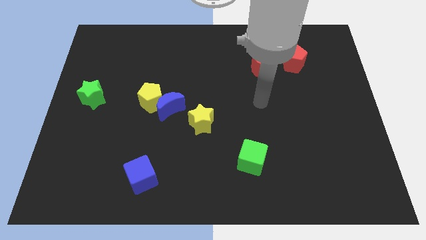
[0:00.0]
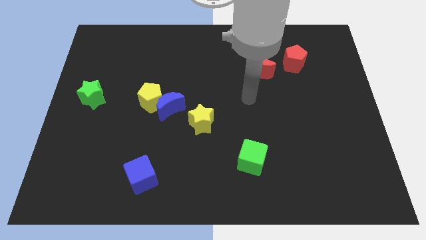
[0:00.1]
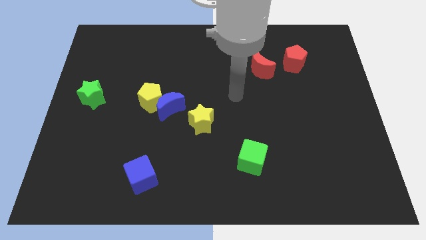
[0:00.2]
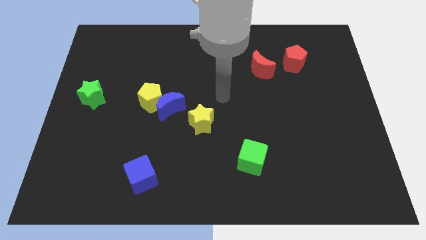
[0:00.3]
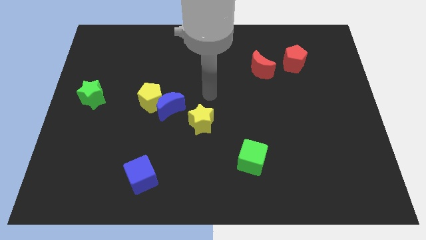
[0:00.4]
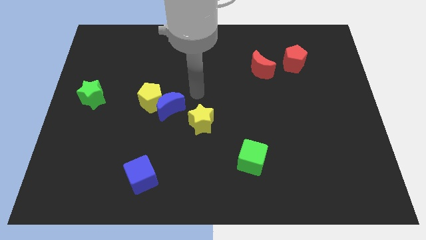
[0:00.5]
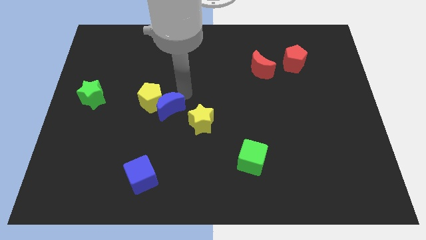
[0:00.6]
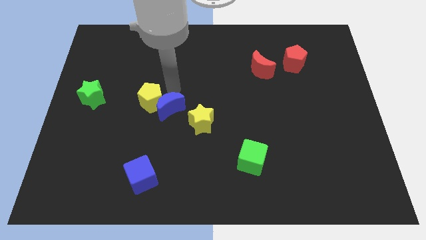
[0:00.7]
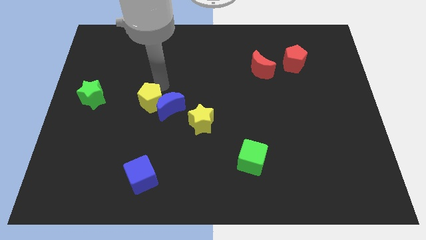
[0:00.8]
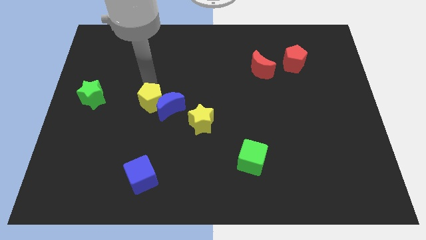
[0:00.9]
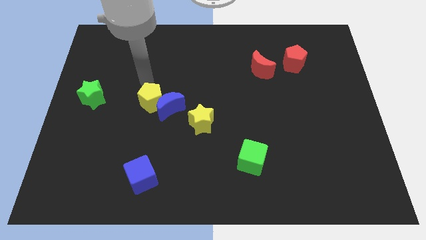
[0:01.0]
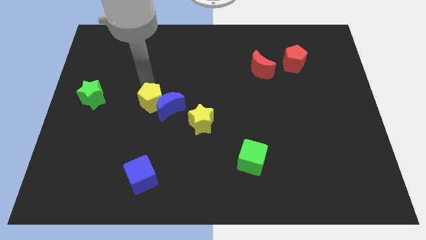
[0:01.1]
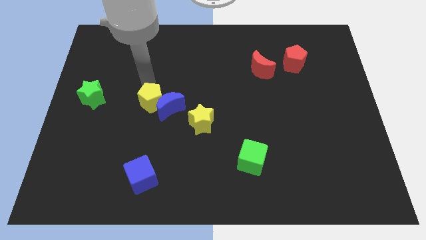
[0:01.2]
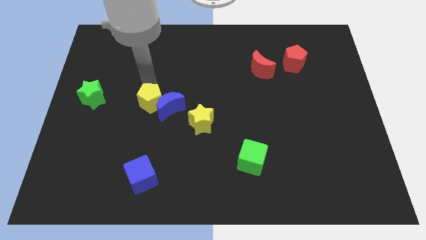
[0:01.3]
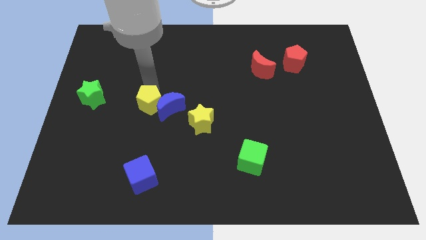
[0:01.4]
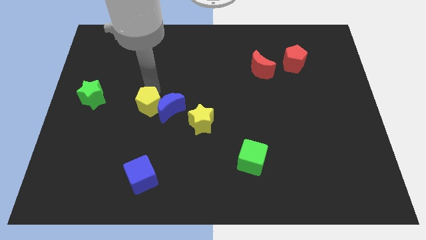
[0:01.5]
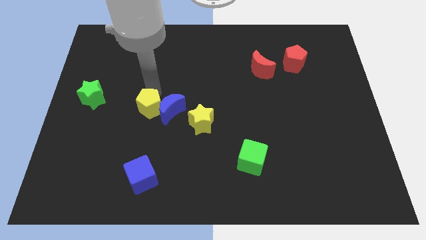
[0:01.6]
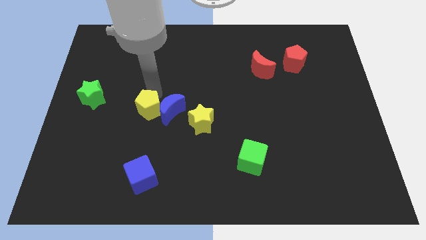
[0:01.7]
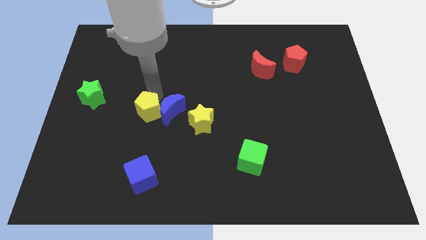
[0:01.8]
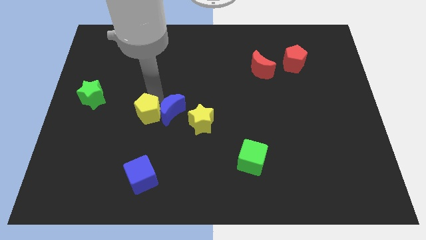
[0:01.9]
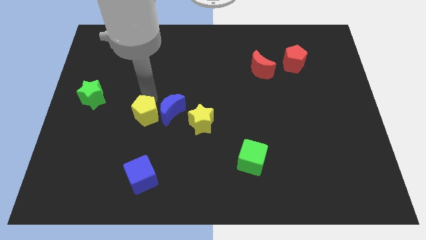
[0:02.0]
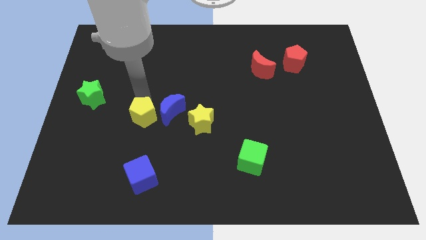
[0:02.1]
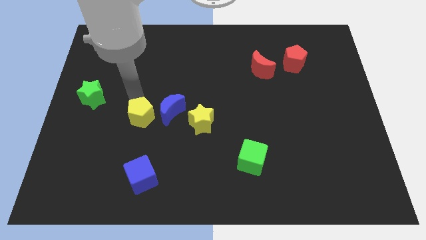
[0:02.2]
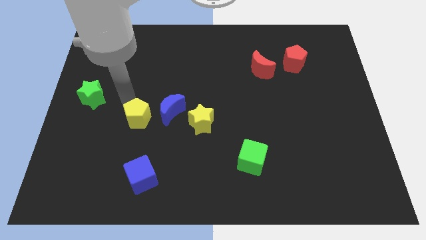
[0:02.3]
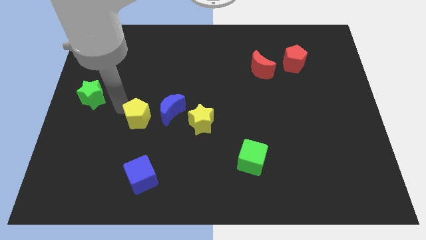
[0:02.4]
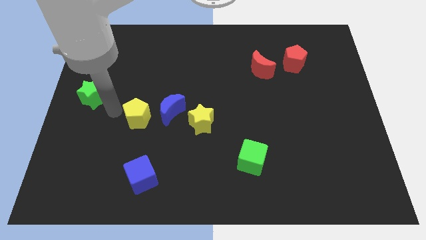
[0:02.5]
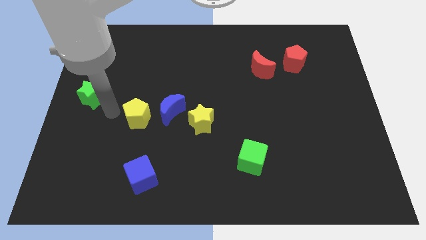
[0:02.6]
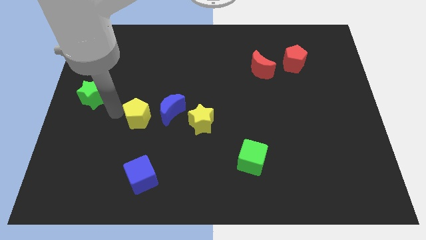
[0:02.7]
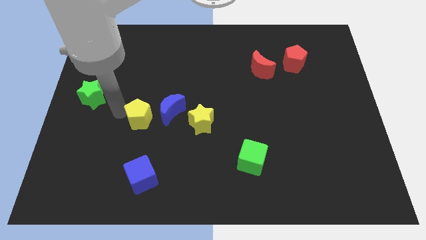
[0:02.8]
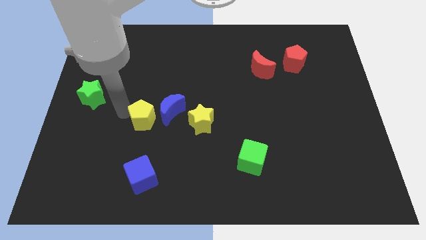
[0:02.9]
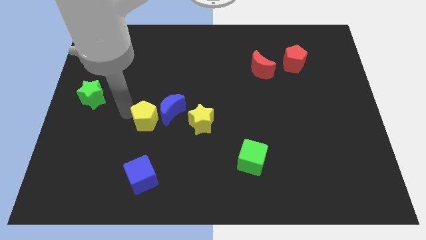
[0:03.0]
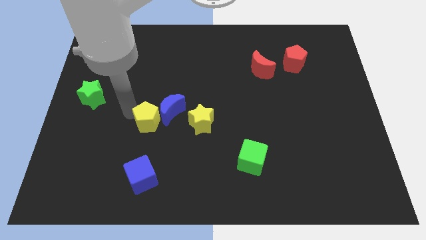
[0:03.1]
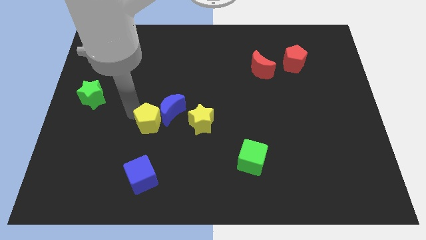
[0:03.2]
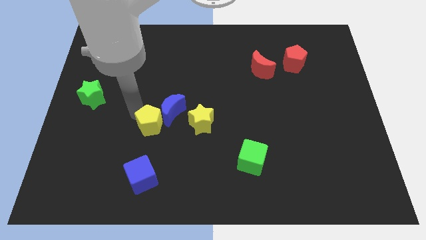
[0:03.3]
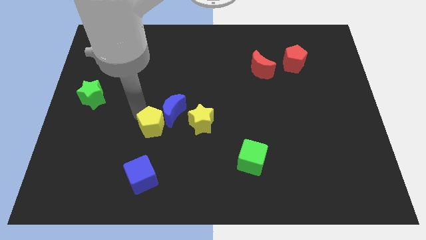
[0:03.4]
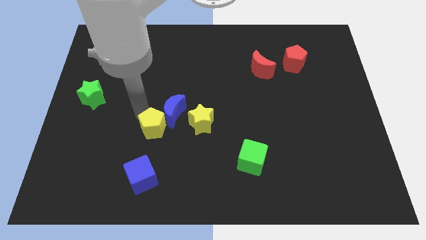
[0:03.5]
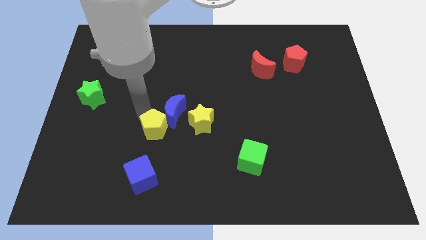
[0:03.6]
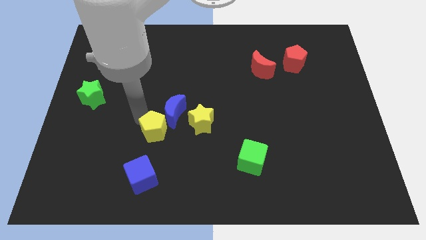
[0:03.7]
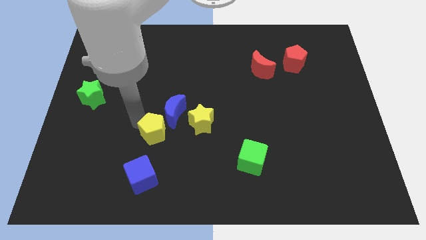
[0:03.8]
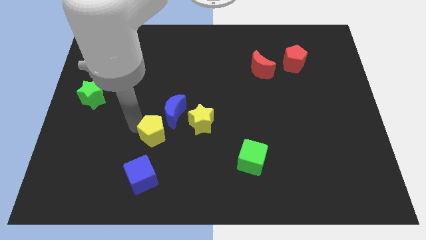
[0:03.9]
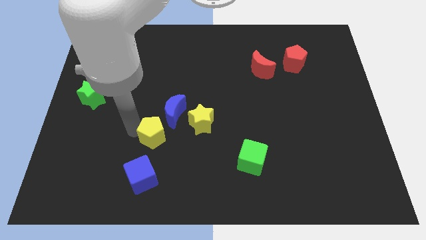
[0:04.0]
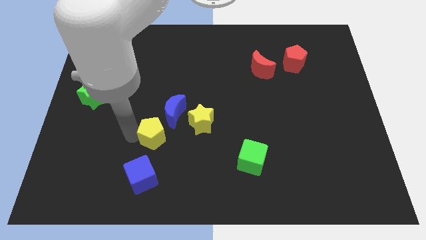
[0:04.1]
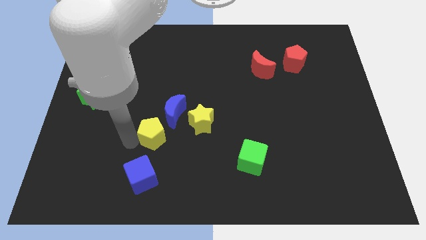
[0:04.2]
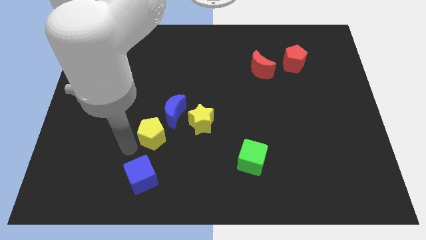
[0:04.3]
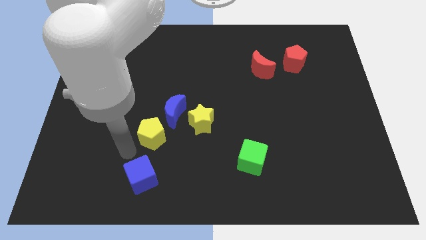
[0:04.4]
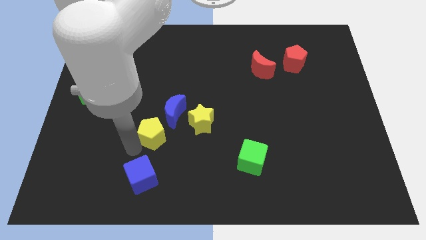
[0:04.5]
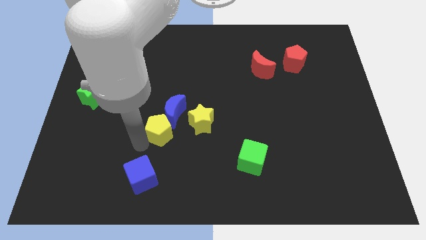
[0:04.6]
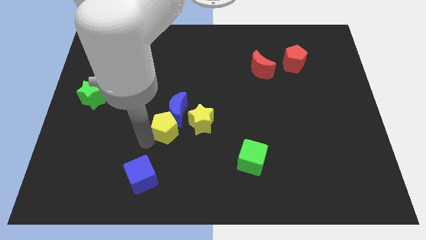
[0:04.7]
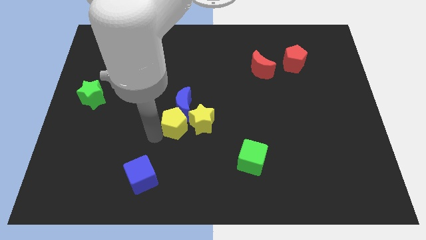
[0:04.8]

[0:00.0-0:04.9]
put the yellow pentagon to the yellow star

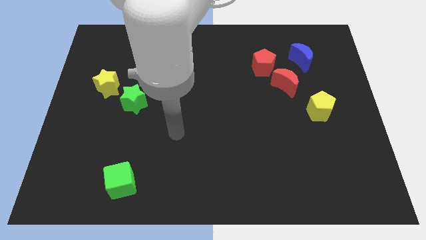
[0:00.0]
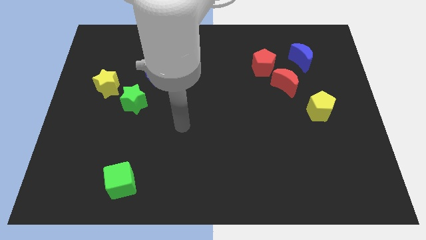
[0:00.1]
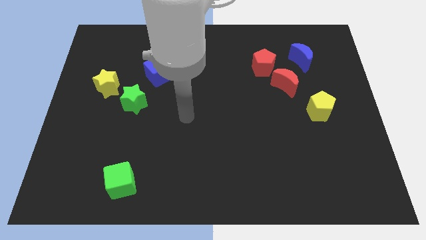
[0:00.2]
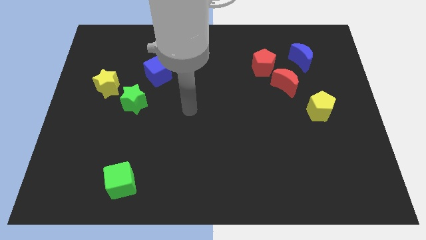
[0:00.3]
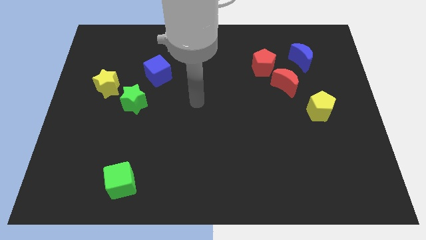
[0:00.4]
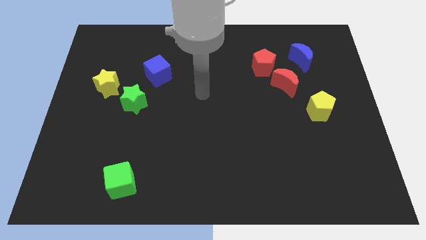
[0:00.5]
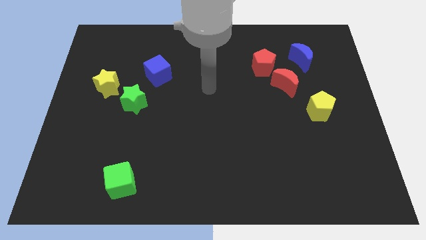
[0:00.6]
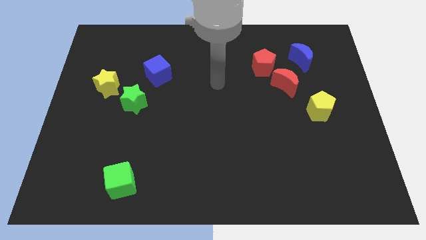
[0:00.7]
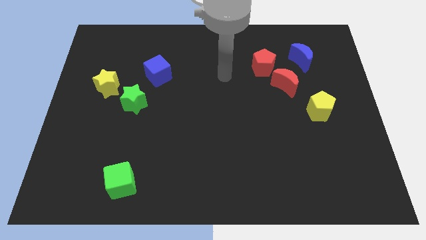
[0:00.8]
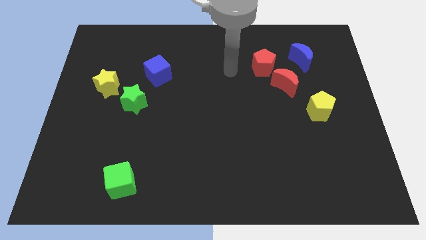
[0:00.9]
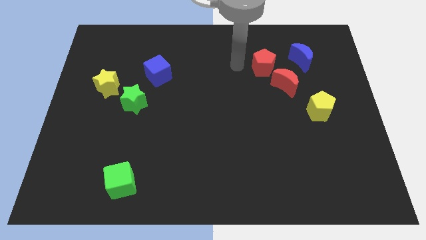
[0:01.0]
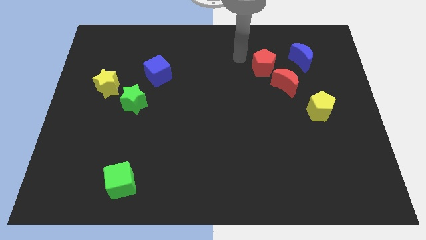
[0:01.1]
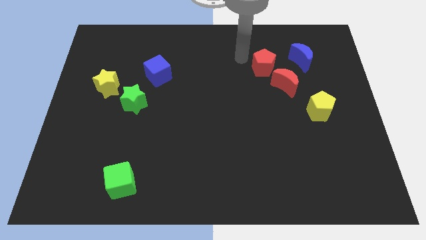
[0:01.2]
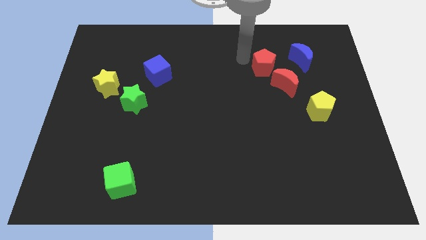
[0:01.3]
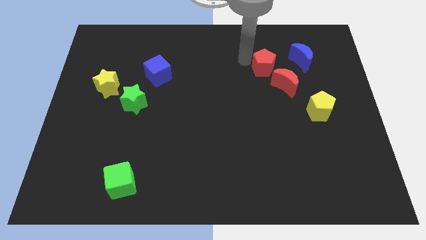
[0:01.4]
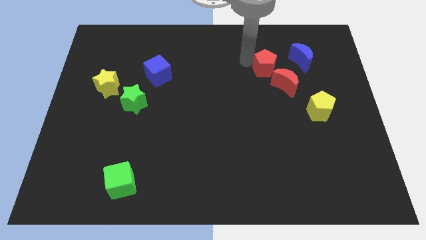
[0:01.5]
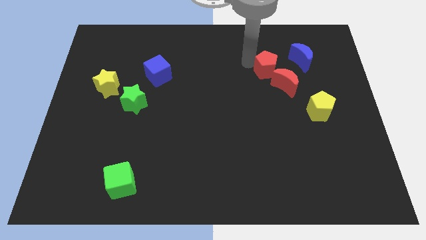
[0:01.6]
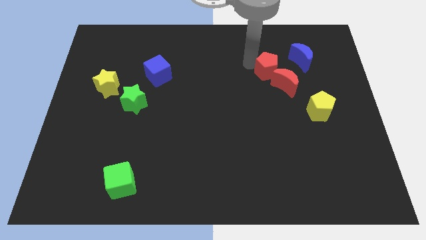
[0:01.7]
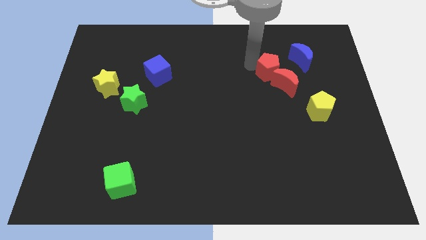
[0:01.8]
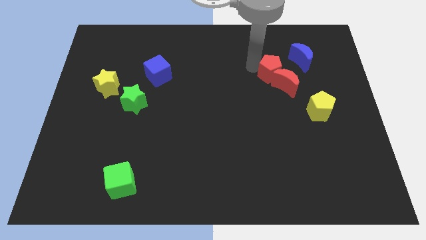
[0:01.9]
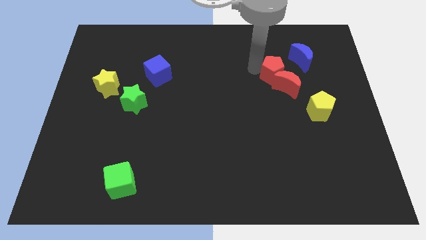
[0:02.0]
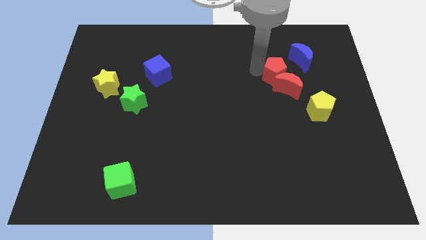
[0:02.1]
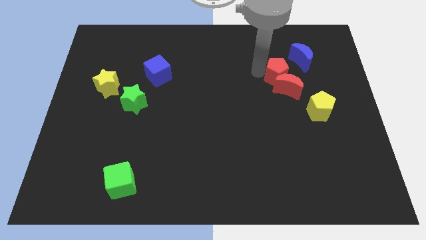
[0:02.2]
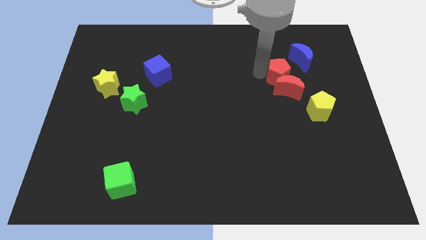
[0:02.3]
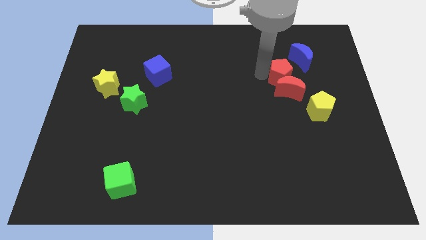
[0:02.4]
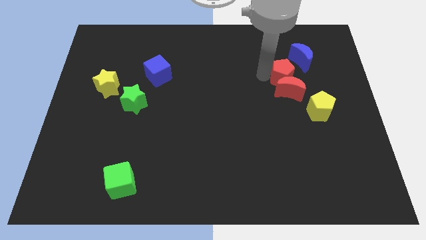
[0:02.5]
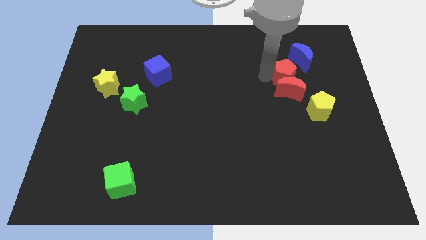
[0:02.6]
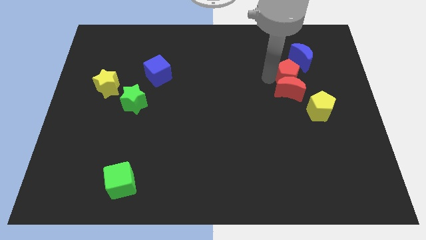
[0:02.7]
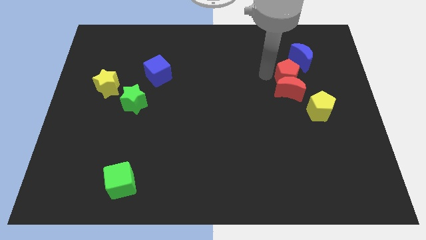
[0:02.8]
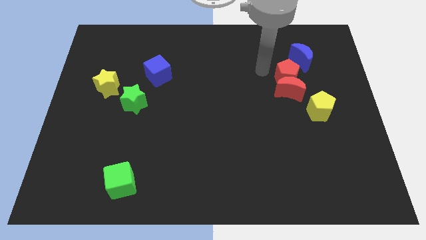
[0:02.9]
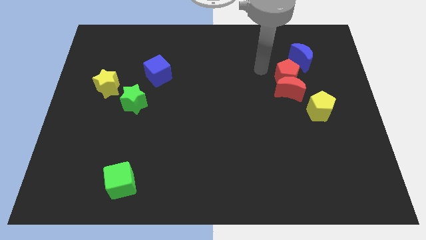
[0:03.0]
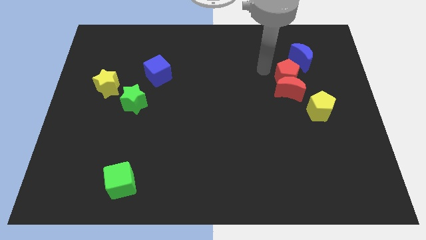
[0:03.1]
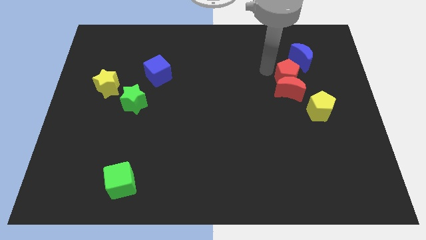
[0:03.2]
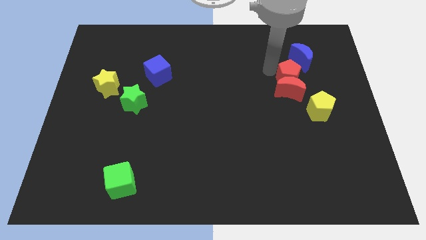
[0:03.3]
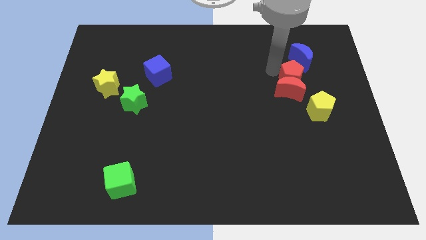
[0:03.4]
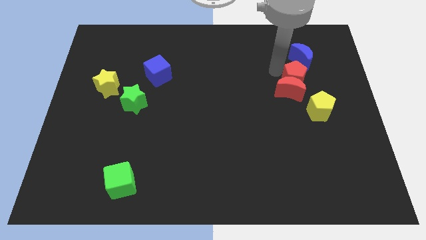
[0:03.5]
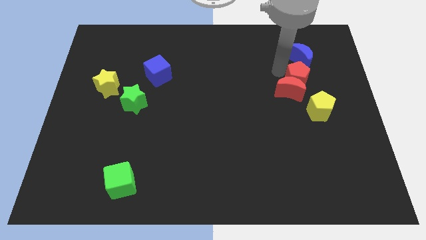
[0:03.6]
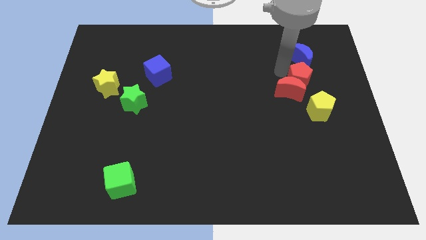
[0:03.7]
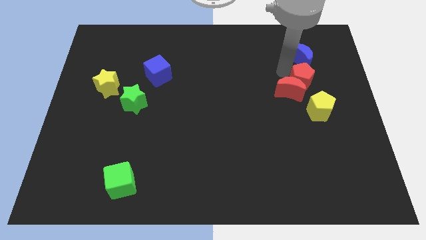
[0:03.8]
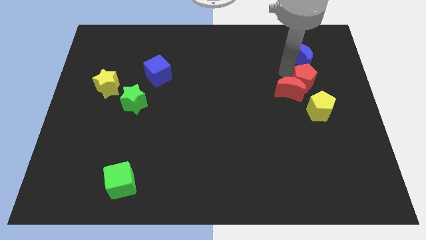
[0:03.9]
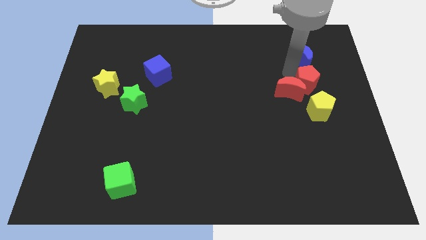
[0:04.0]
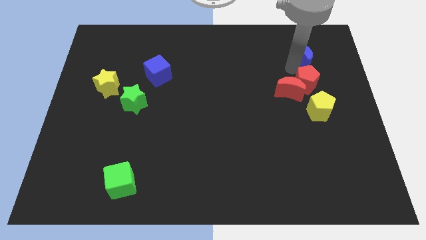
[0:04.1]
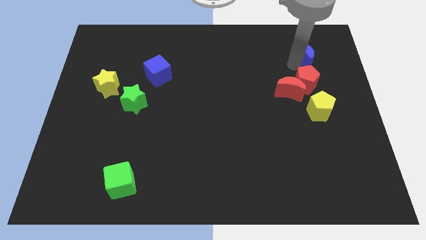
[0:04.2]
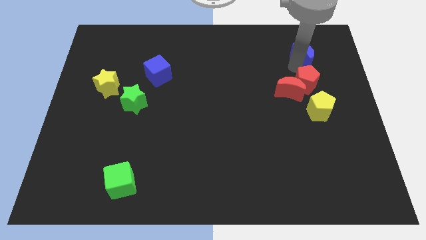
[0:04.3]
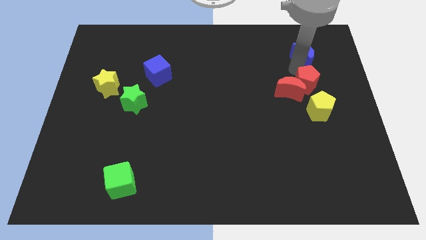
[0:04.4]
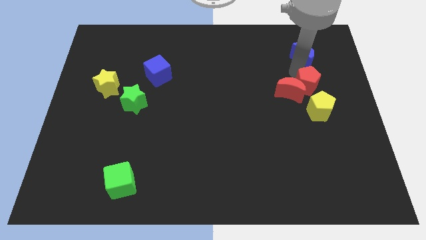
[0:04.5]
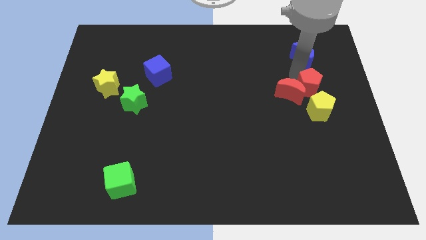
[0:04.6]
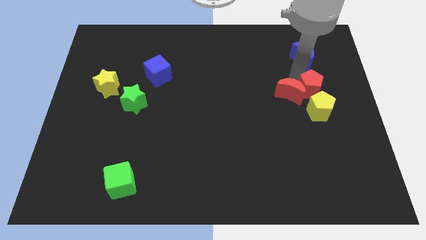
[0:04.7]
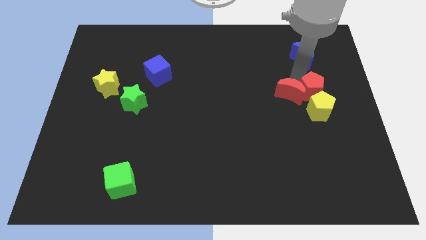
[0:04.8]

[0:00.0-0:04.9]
slide the red pentagon towards the yellow pentagon
